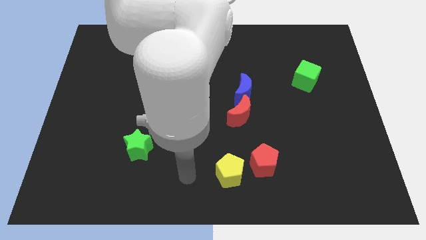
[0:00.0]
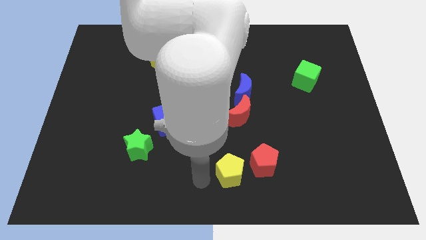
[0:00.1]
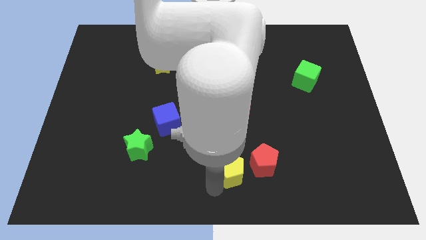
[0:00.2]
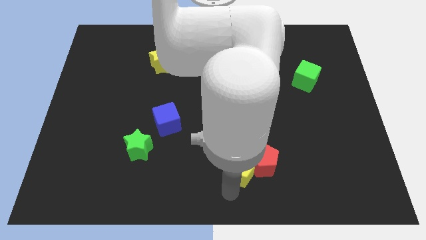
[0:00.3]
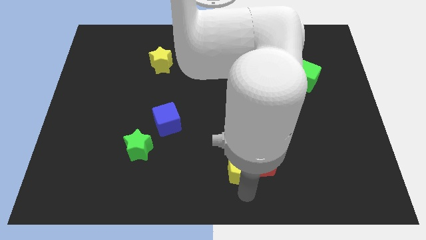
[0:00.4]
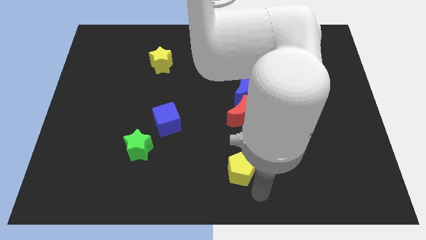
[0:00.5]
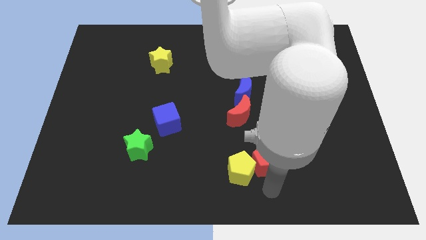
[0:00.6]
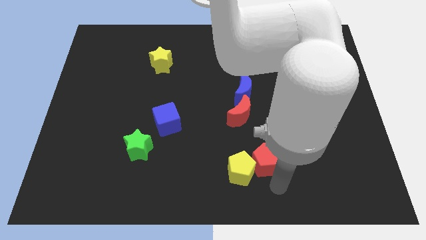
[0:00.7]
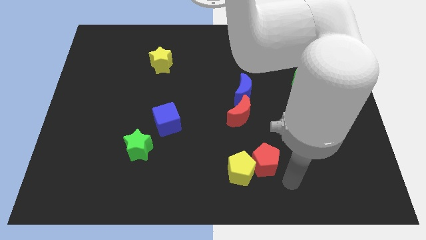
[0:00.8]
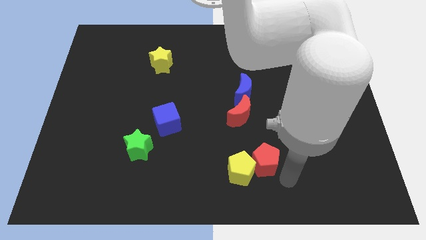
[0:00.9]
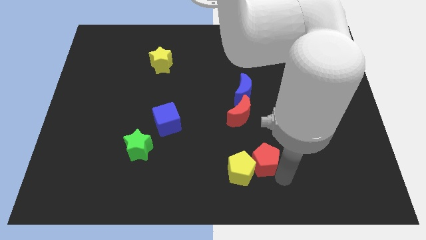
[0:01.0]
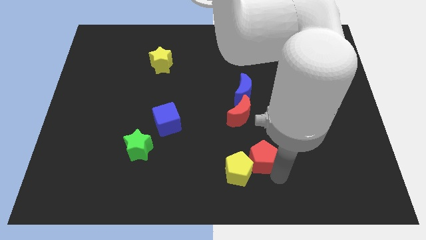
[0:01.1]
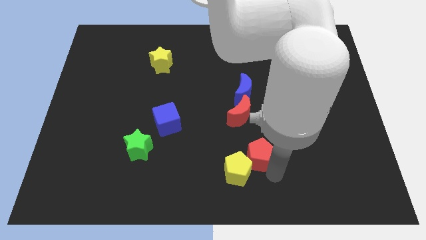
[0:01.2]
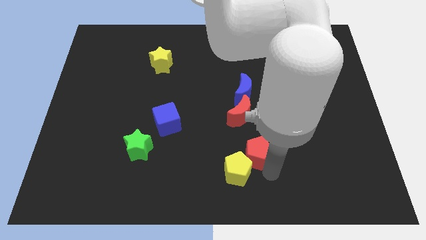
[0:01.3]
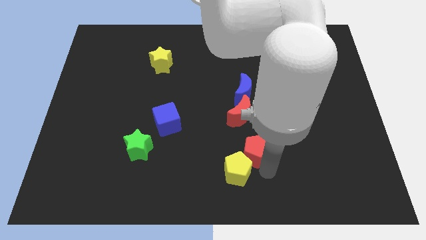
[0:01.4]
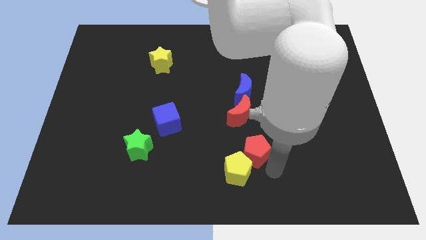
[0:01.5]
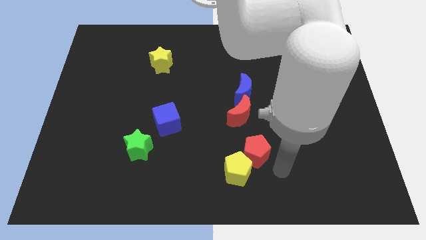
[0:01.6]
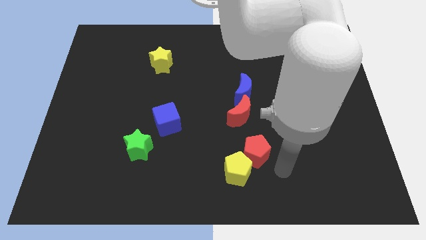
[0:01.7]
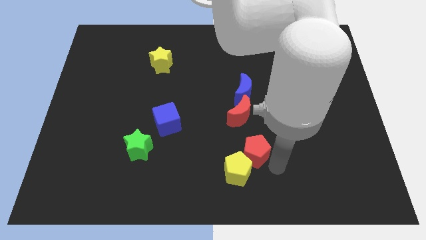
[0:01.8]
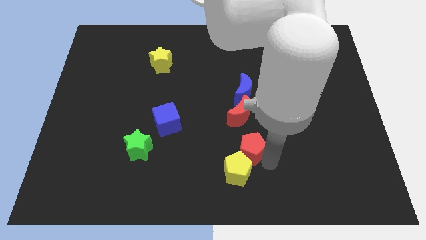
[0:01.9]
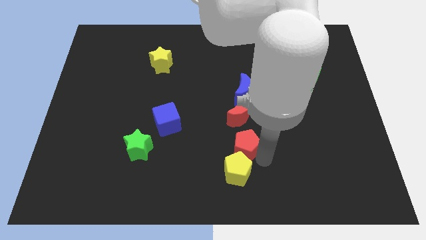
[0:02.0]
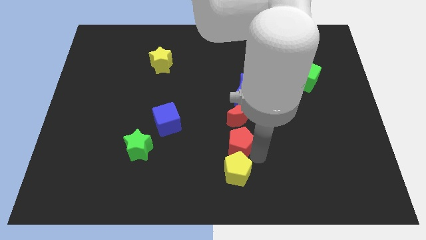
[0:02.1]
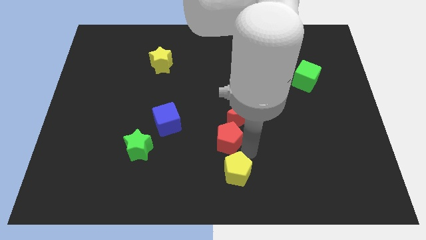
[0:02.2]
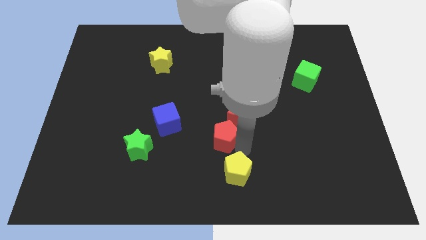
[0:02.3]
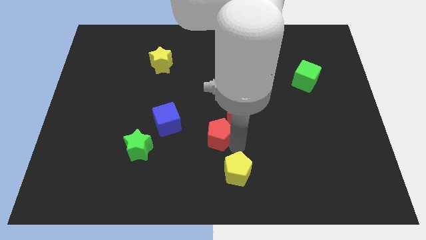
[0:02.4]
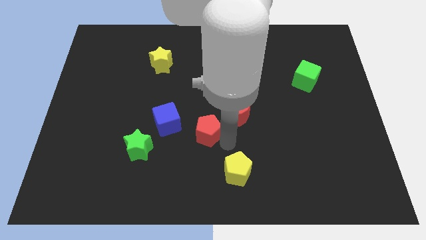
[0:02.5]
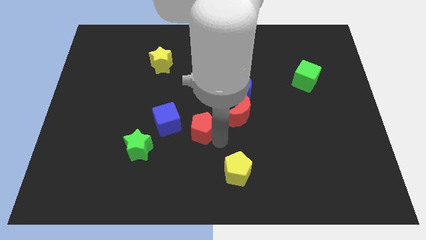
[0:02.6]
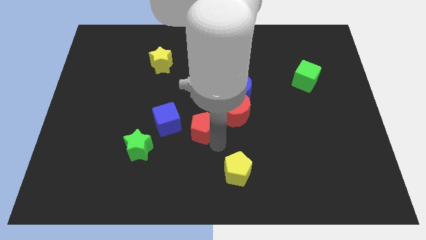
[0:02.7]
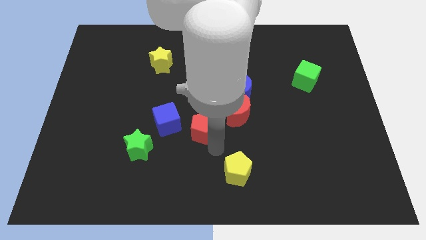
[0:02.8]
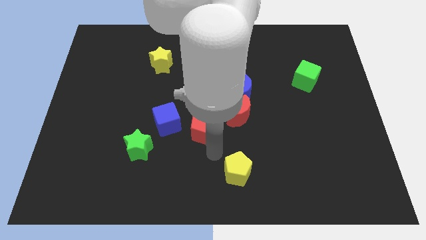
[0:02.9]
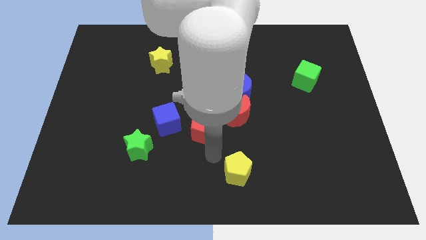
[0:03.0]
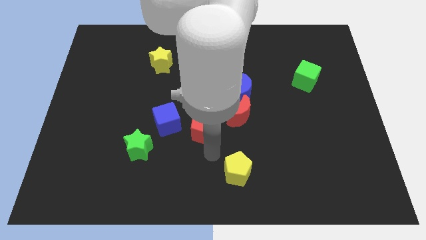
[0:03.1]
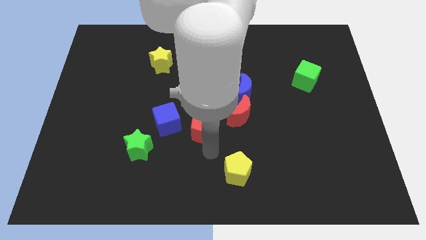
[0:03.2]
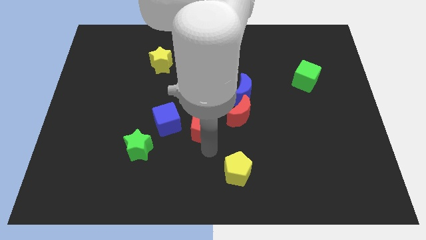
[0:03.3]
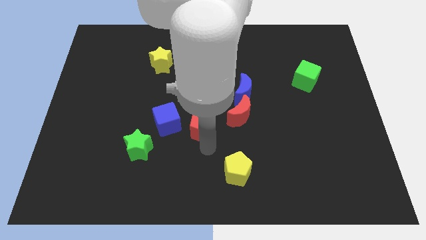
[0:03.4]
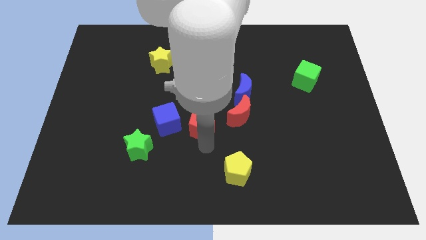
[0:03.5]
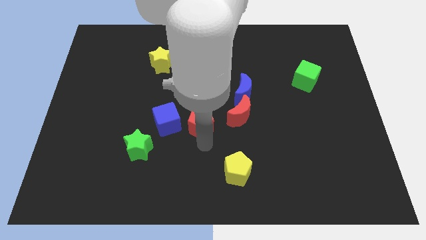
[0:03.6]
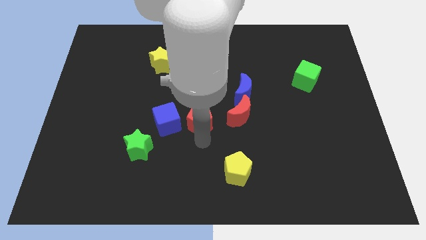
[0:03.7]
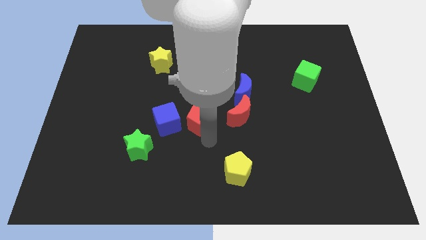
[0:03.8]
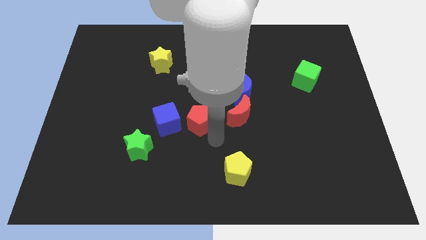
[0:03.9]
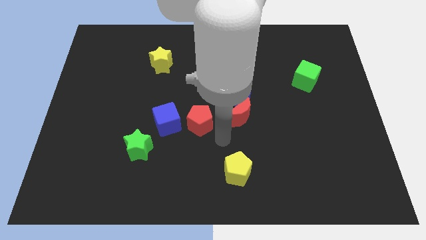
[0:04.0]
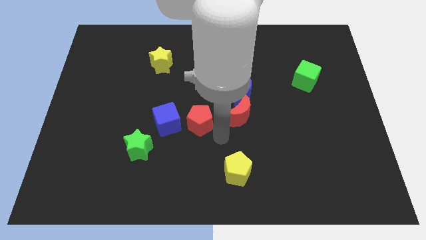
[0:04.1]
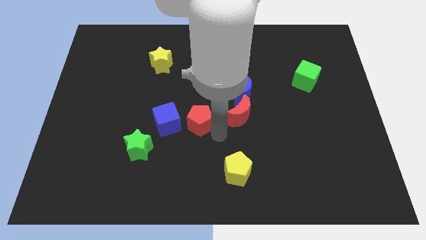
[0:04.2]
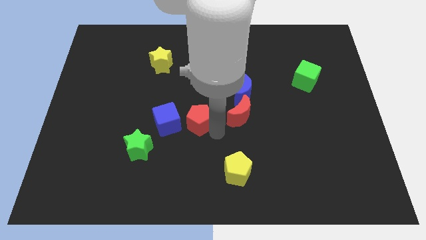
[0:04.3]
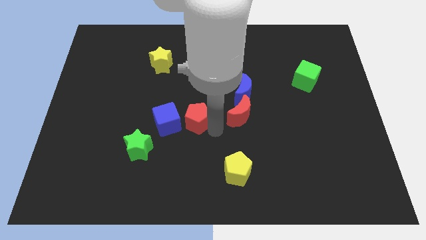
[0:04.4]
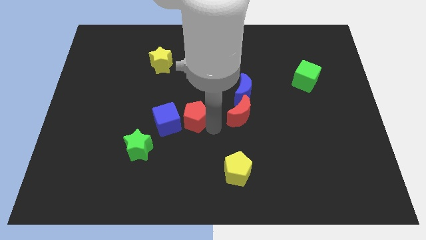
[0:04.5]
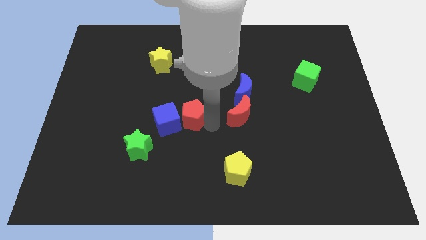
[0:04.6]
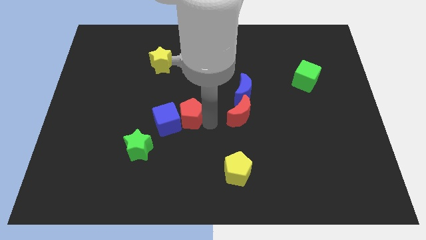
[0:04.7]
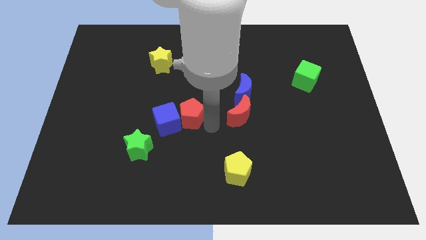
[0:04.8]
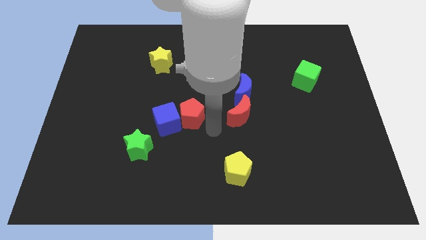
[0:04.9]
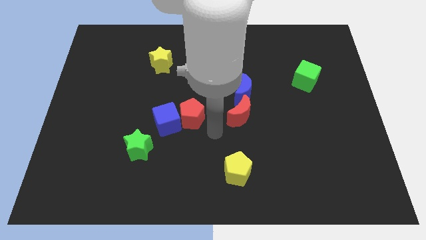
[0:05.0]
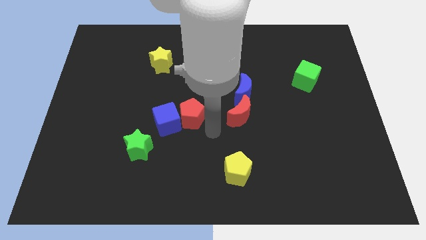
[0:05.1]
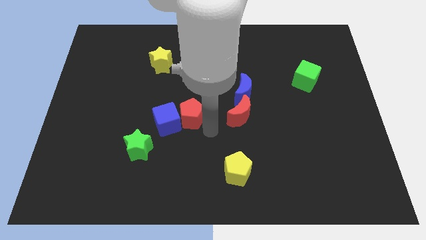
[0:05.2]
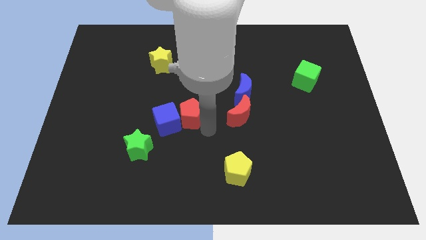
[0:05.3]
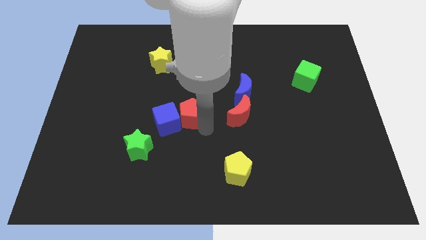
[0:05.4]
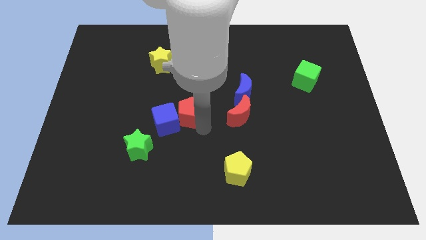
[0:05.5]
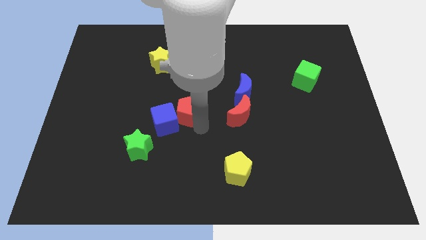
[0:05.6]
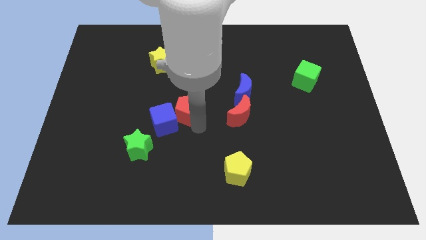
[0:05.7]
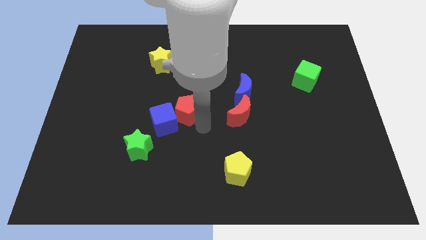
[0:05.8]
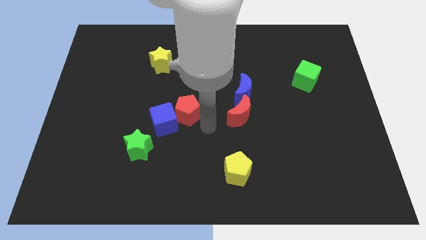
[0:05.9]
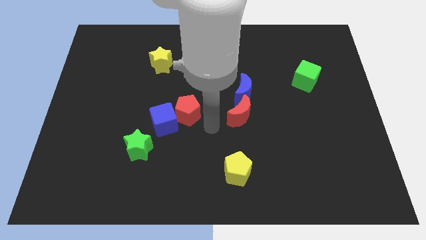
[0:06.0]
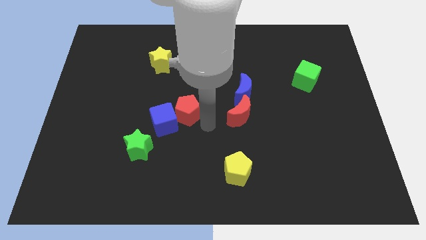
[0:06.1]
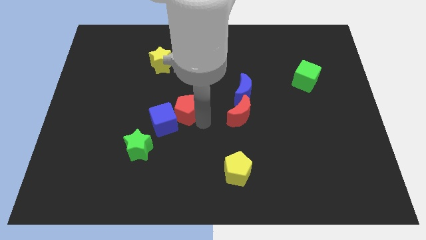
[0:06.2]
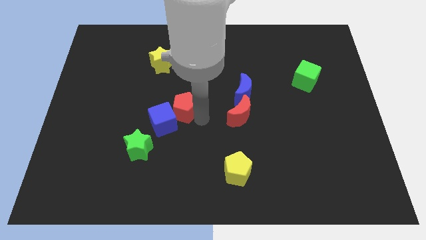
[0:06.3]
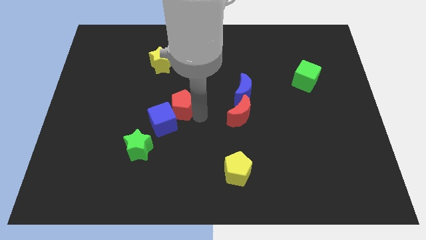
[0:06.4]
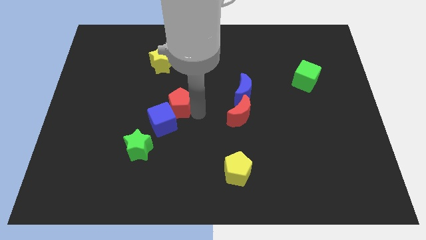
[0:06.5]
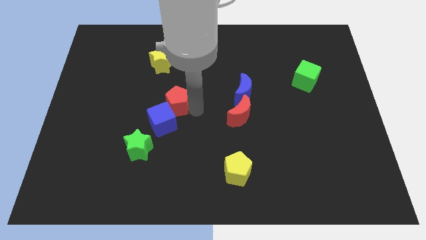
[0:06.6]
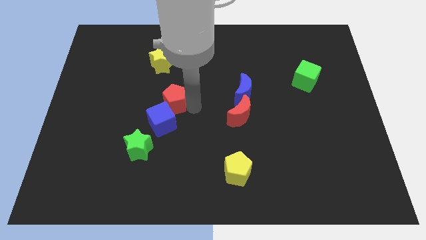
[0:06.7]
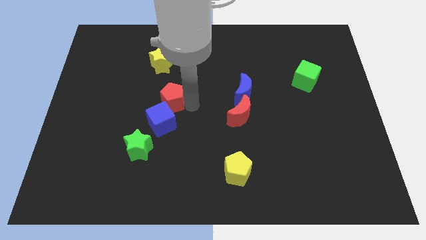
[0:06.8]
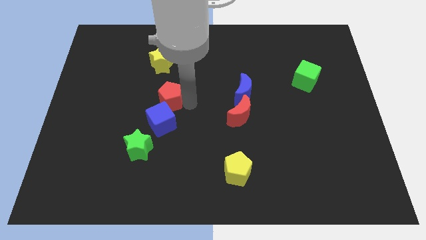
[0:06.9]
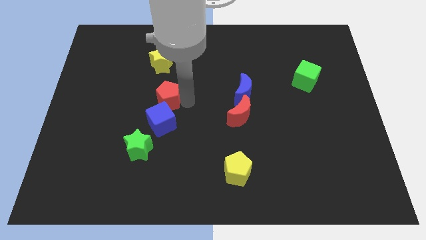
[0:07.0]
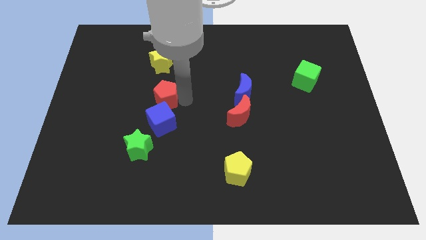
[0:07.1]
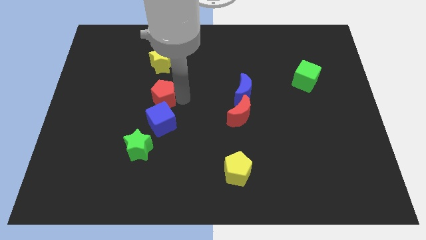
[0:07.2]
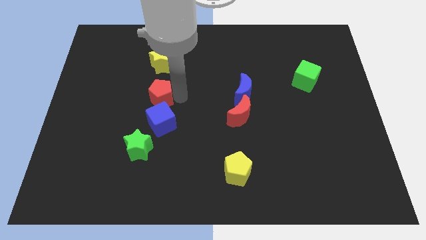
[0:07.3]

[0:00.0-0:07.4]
put the red pentagon above the green star
